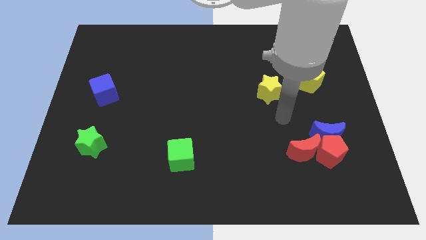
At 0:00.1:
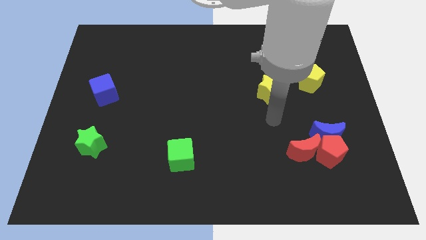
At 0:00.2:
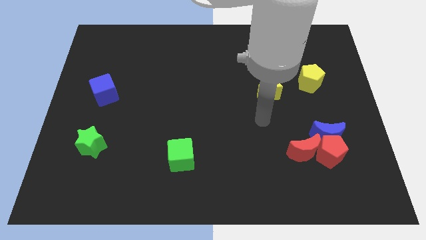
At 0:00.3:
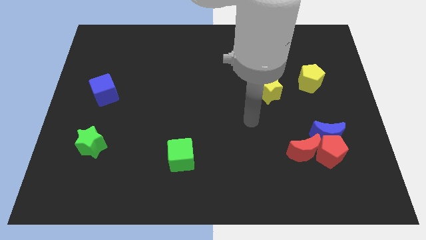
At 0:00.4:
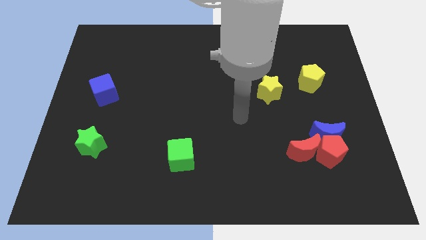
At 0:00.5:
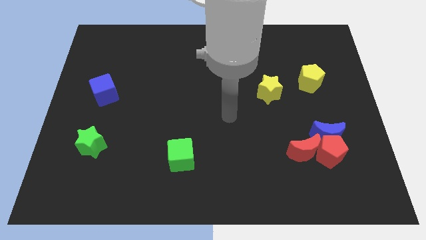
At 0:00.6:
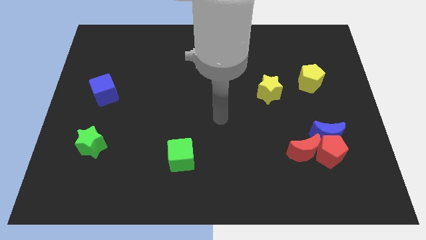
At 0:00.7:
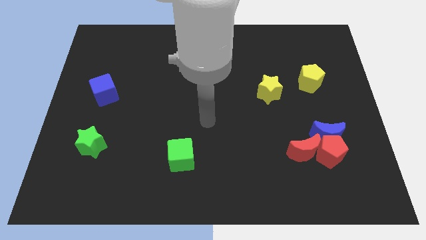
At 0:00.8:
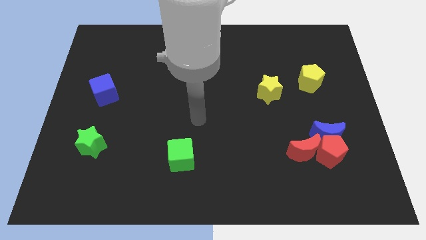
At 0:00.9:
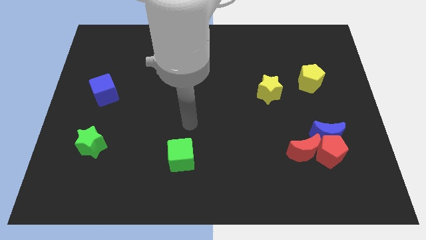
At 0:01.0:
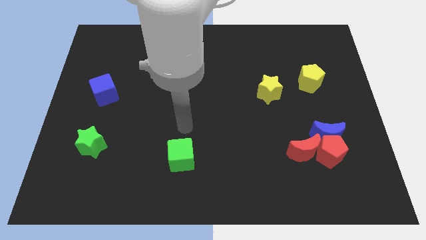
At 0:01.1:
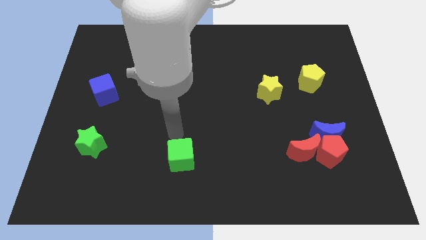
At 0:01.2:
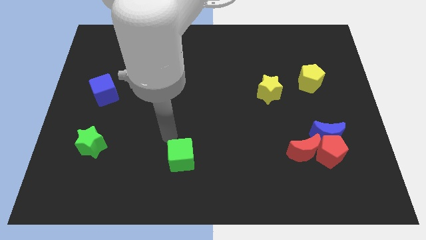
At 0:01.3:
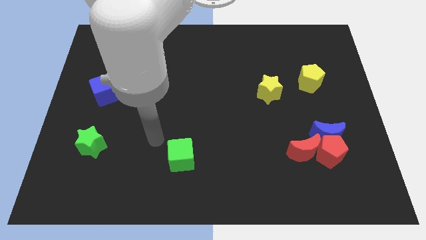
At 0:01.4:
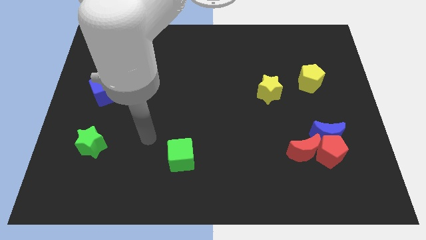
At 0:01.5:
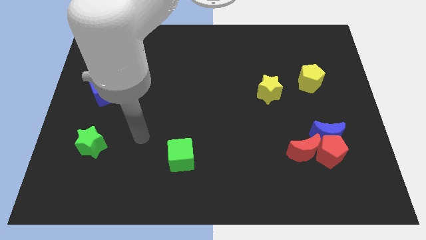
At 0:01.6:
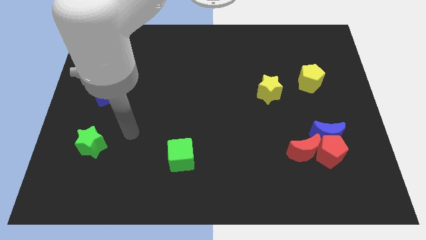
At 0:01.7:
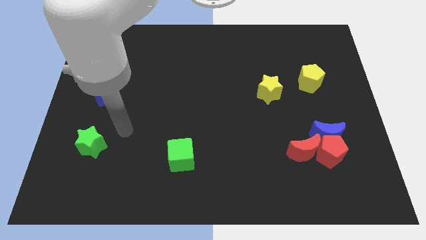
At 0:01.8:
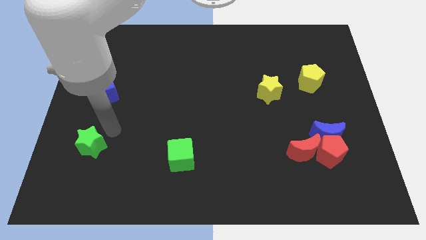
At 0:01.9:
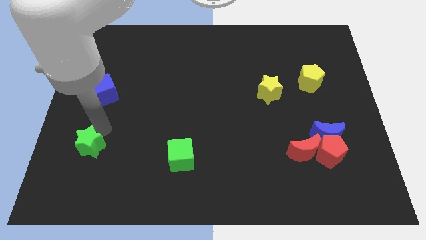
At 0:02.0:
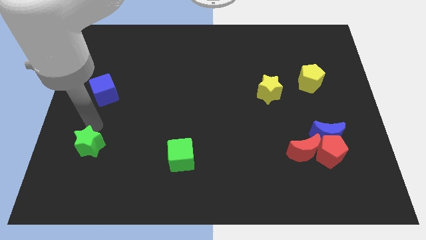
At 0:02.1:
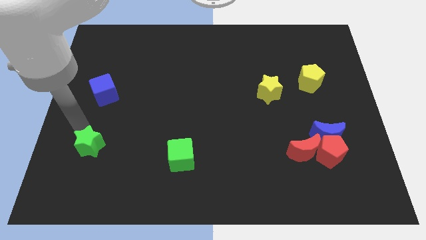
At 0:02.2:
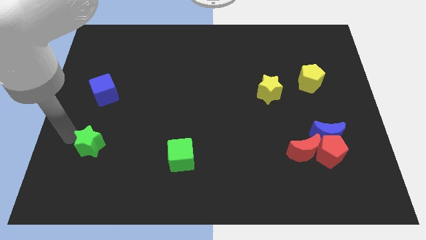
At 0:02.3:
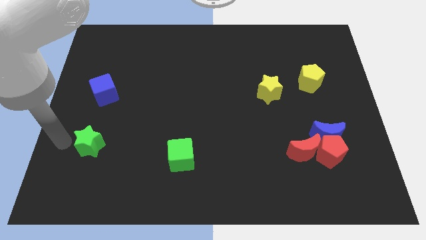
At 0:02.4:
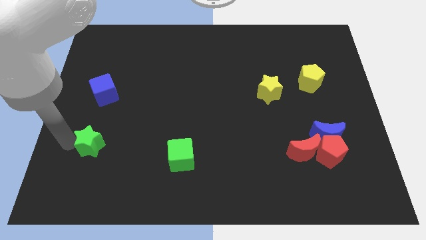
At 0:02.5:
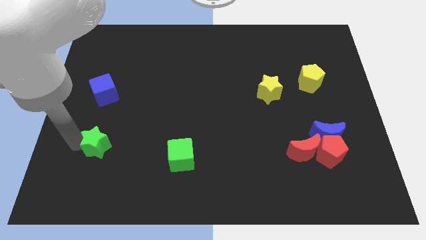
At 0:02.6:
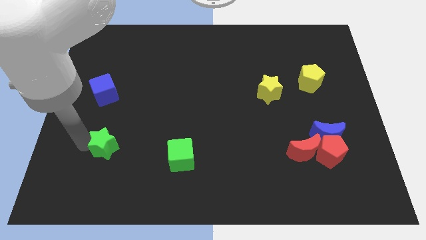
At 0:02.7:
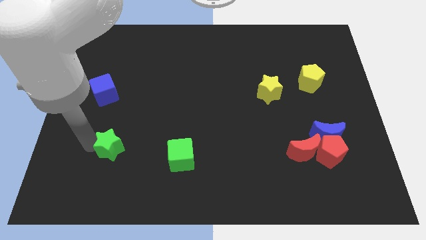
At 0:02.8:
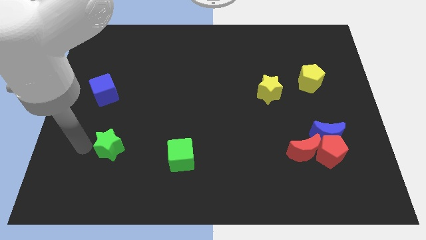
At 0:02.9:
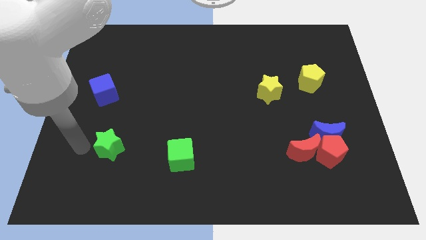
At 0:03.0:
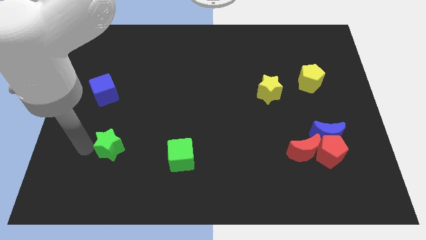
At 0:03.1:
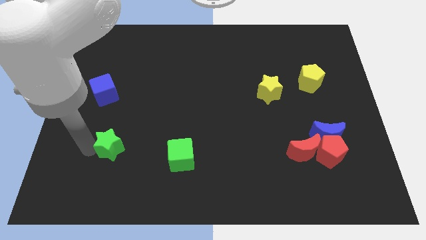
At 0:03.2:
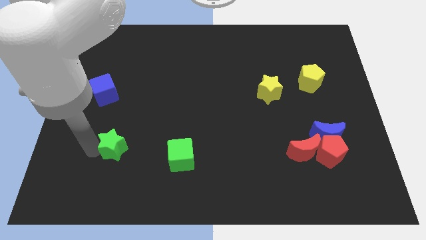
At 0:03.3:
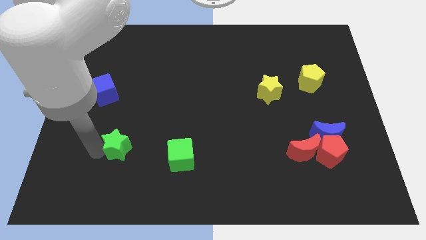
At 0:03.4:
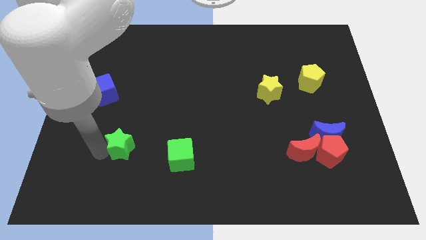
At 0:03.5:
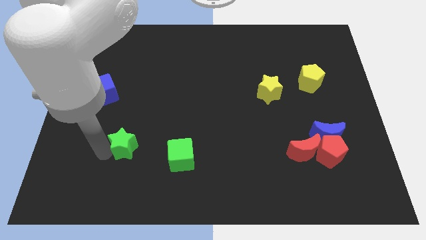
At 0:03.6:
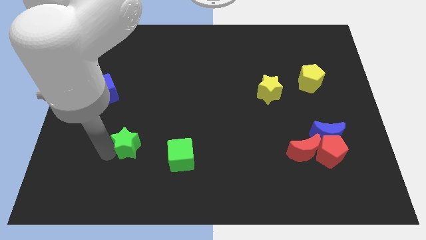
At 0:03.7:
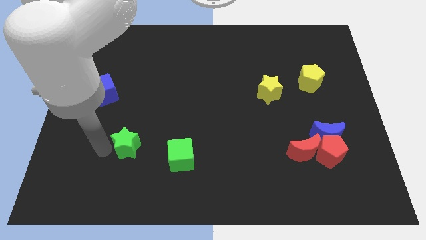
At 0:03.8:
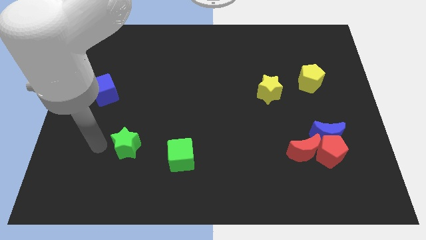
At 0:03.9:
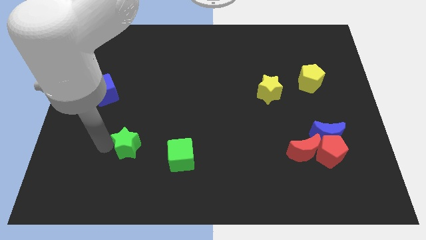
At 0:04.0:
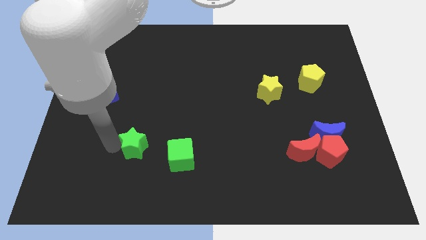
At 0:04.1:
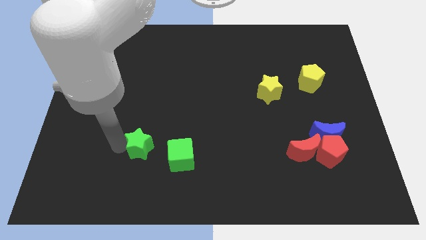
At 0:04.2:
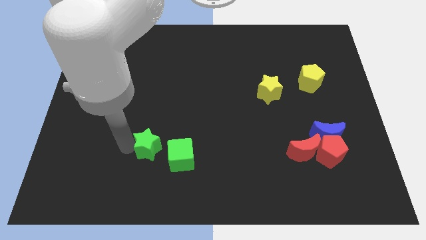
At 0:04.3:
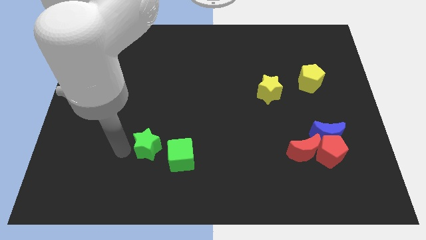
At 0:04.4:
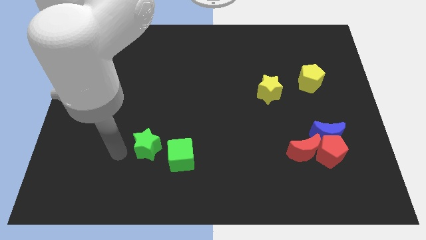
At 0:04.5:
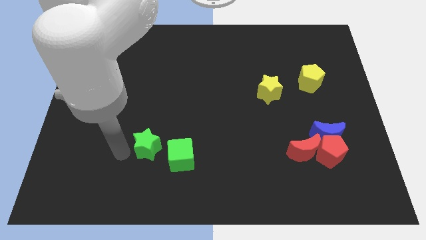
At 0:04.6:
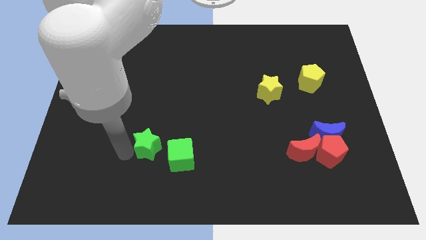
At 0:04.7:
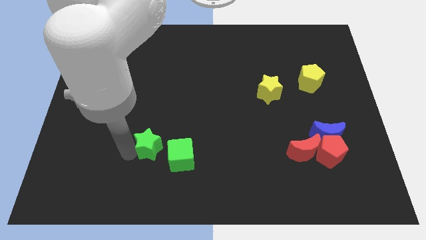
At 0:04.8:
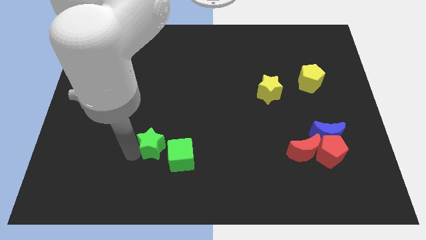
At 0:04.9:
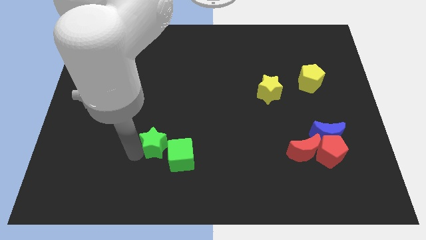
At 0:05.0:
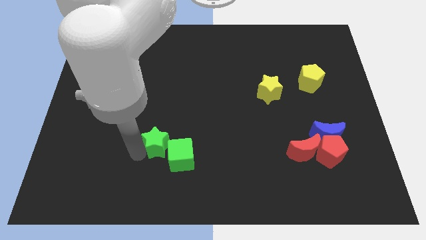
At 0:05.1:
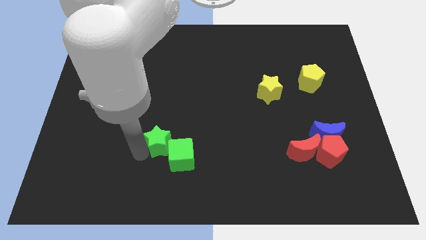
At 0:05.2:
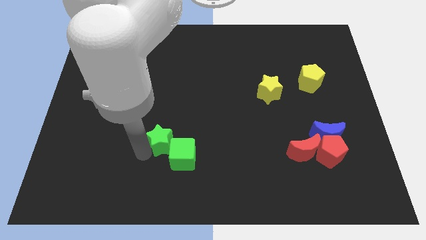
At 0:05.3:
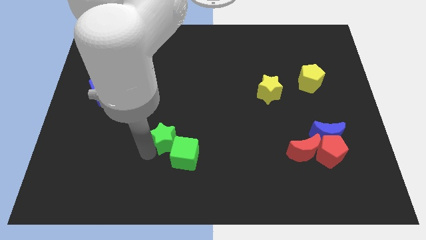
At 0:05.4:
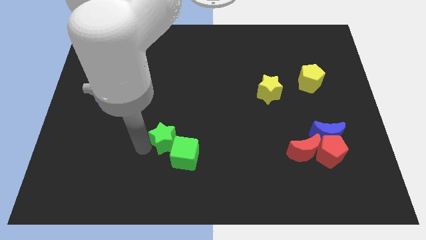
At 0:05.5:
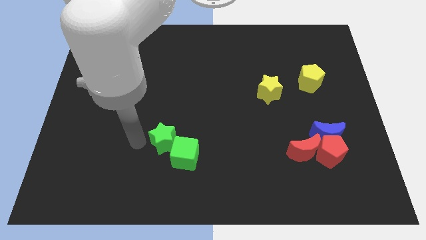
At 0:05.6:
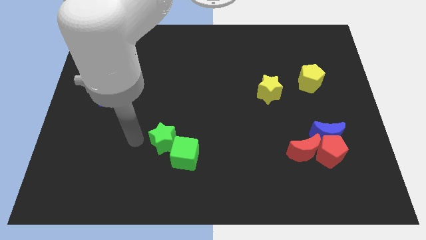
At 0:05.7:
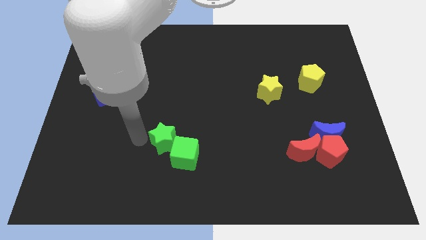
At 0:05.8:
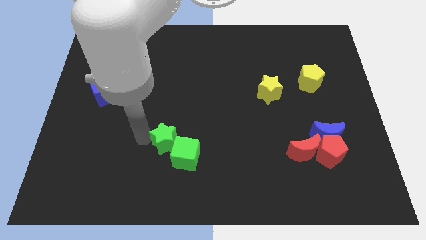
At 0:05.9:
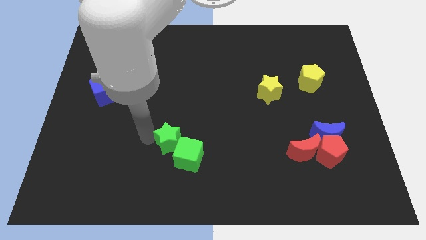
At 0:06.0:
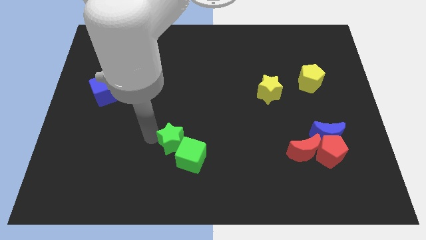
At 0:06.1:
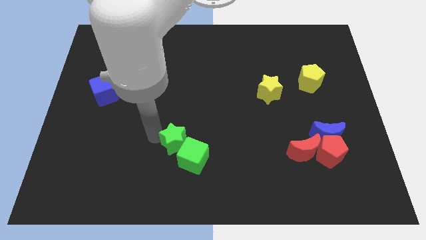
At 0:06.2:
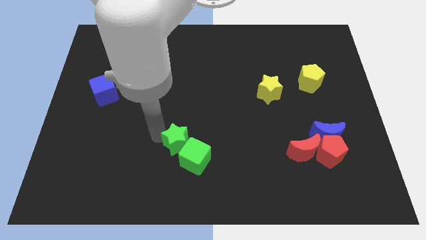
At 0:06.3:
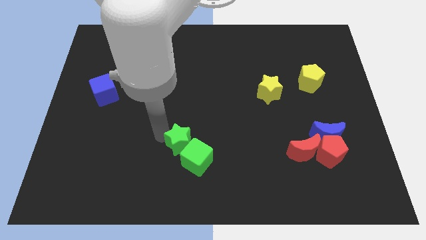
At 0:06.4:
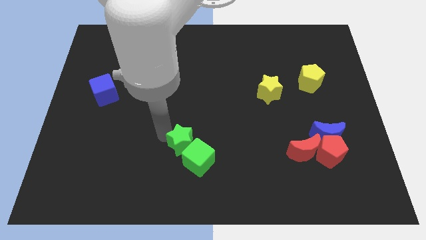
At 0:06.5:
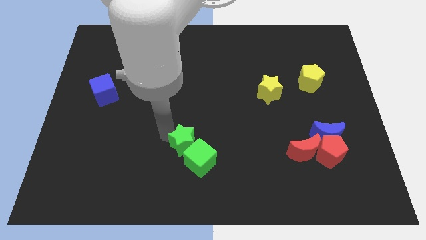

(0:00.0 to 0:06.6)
push the green star right

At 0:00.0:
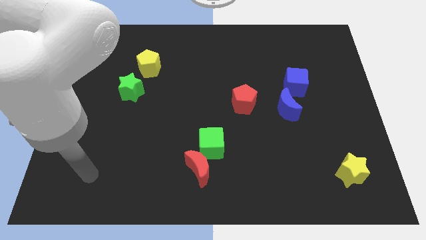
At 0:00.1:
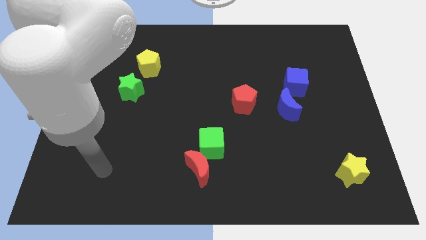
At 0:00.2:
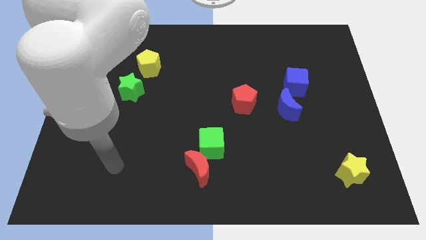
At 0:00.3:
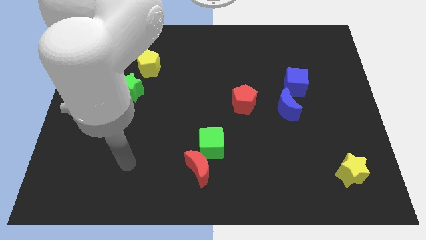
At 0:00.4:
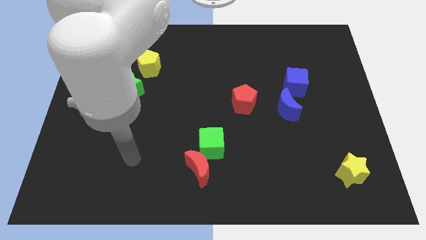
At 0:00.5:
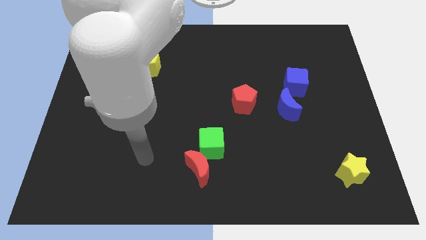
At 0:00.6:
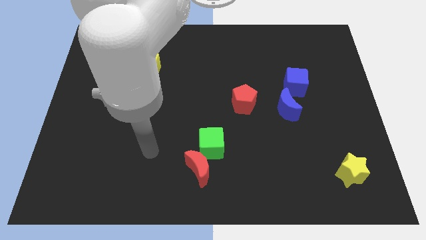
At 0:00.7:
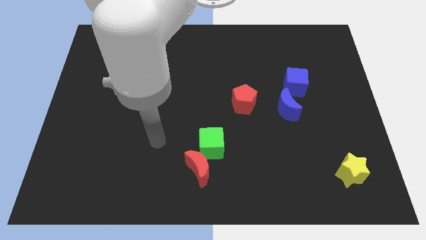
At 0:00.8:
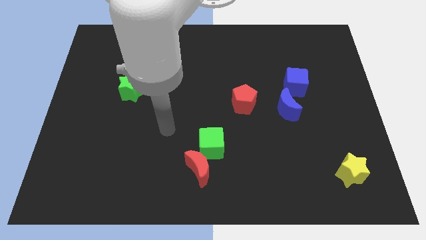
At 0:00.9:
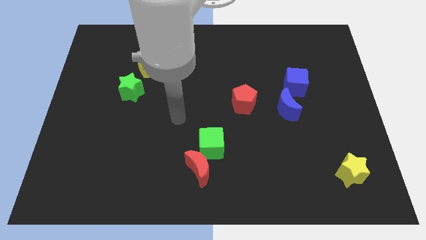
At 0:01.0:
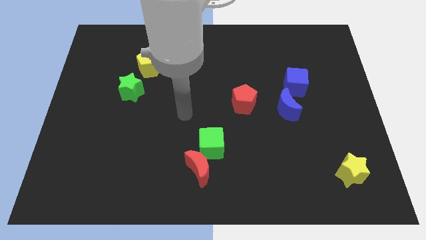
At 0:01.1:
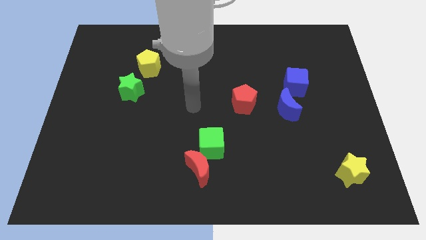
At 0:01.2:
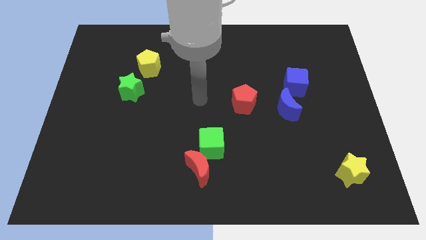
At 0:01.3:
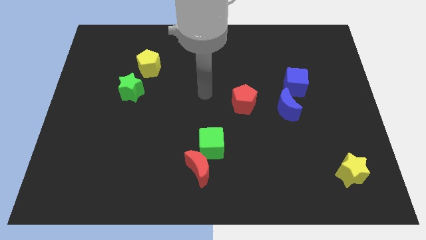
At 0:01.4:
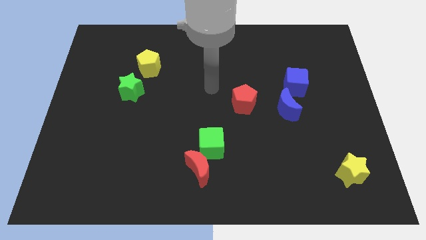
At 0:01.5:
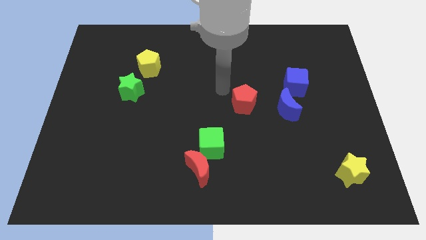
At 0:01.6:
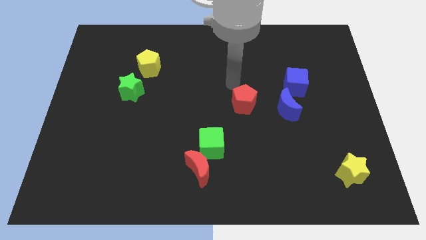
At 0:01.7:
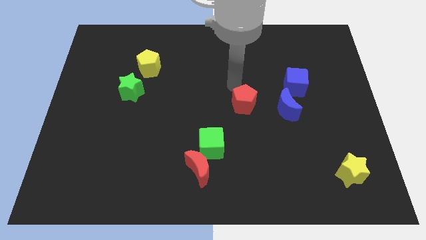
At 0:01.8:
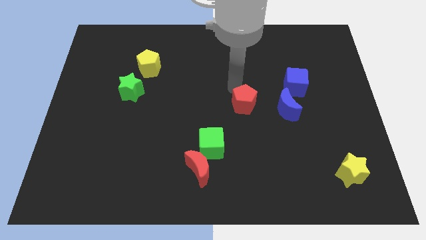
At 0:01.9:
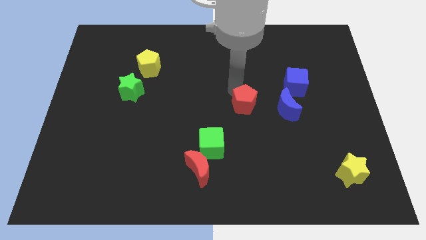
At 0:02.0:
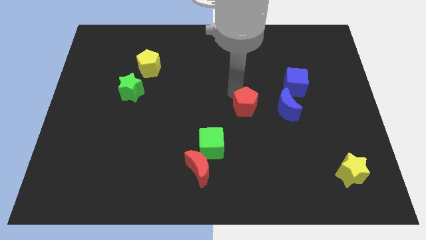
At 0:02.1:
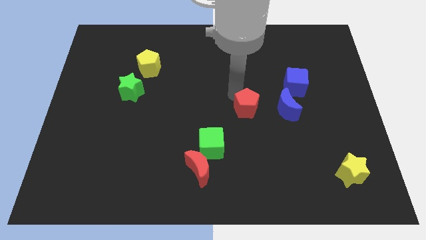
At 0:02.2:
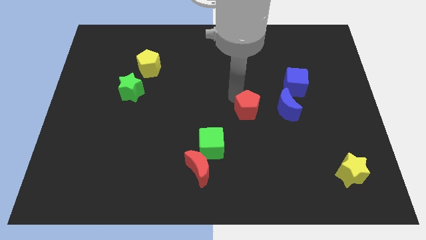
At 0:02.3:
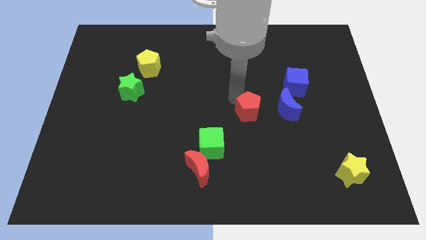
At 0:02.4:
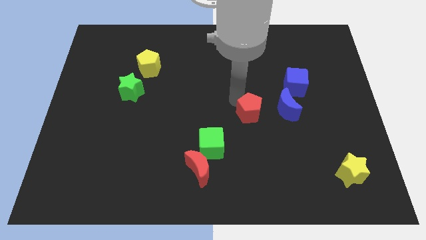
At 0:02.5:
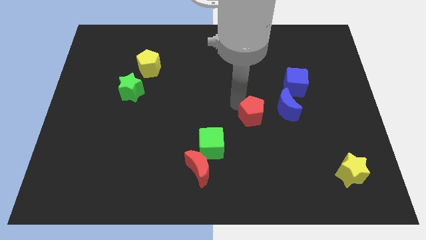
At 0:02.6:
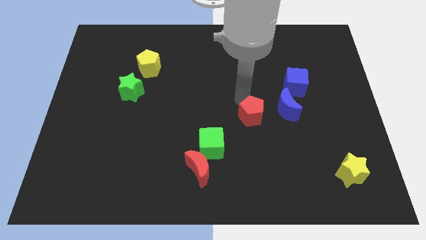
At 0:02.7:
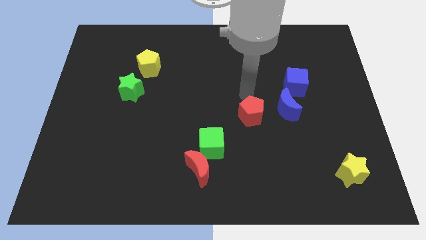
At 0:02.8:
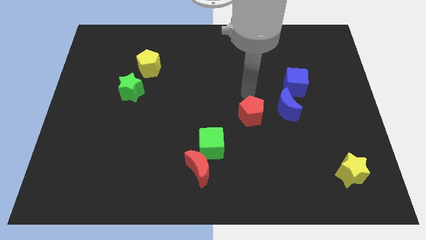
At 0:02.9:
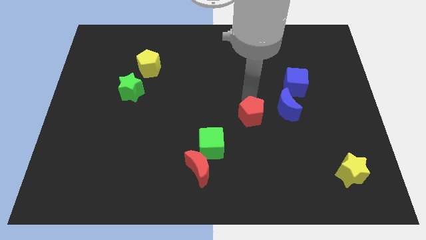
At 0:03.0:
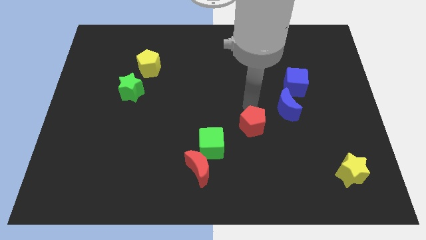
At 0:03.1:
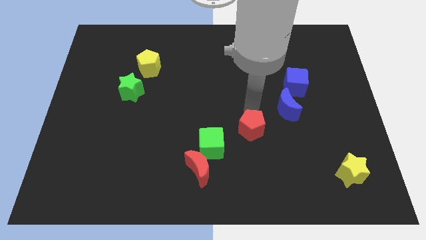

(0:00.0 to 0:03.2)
push the red pentagon down a little bit
